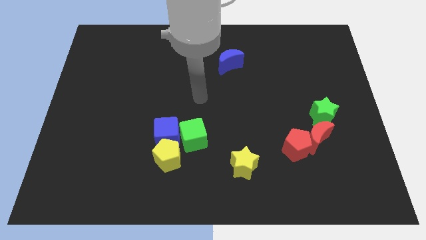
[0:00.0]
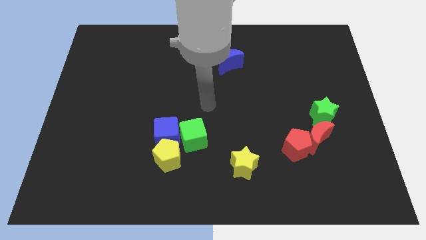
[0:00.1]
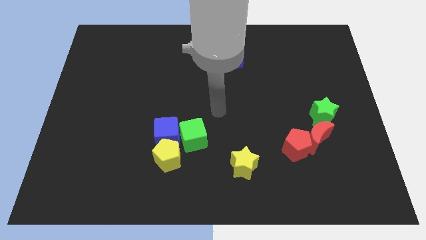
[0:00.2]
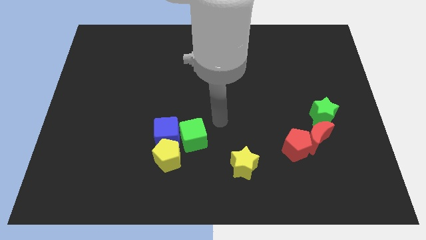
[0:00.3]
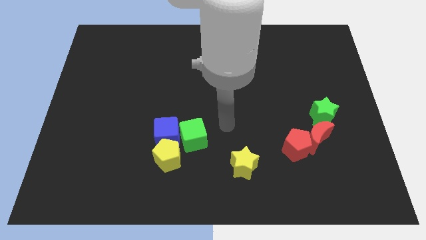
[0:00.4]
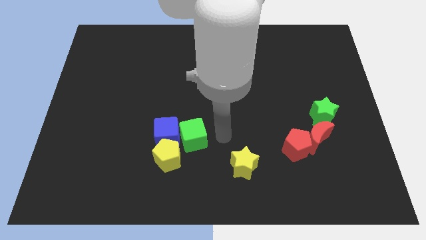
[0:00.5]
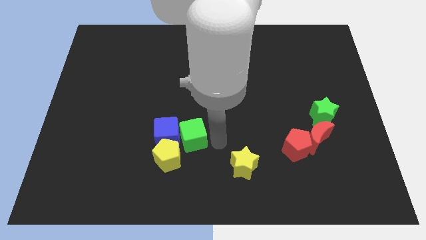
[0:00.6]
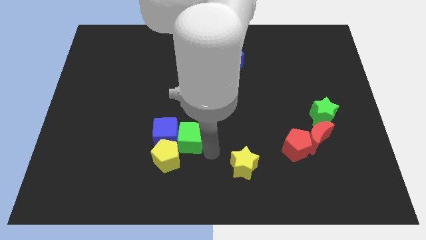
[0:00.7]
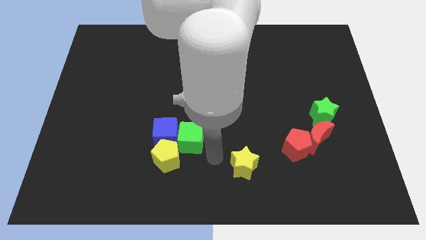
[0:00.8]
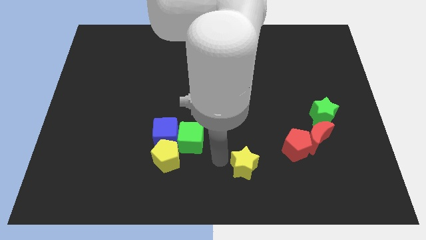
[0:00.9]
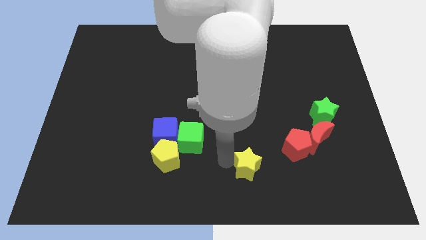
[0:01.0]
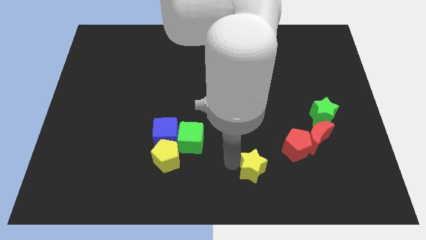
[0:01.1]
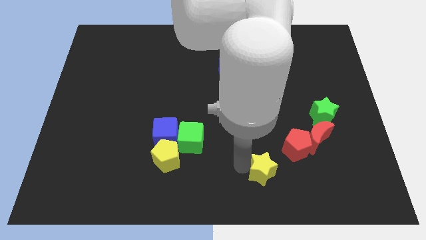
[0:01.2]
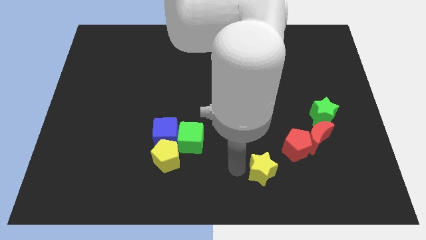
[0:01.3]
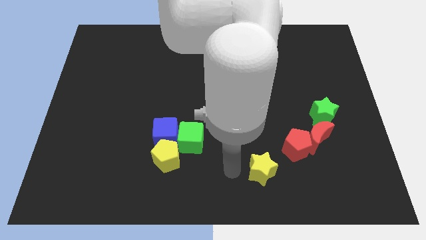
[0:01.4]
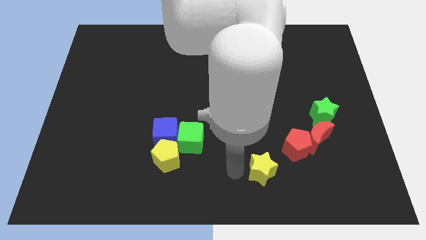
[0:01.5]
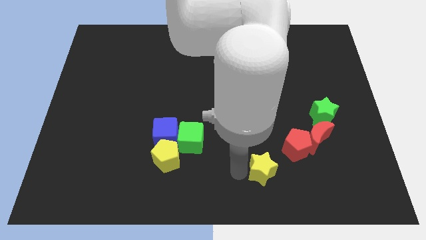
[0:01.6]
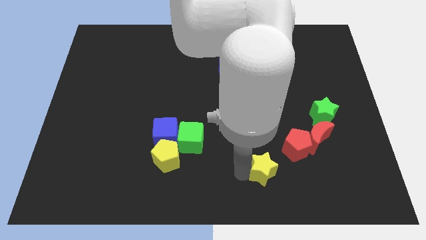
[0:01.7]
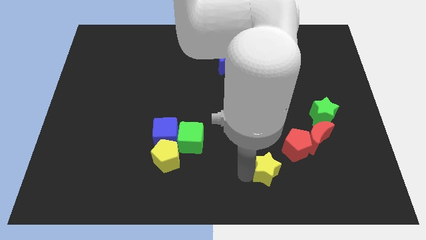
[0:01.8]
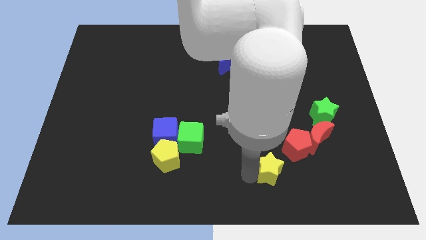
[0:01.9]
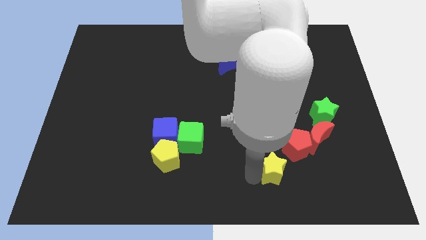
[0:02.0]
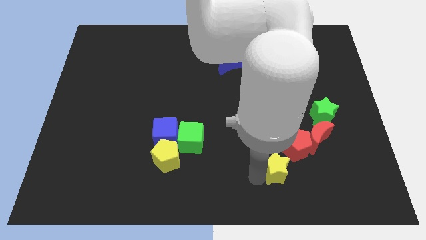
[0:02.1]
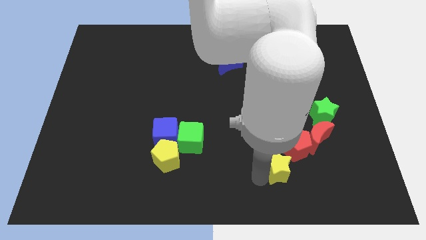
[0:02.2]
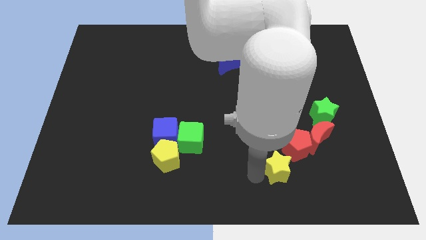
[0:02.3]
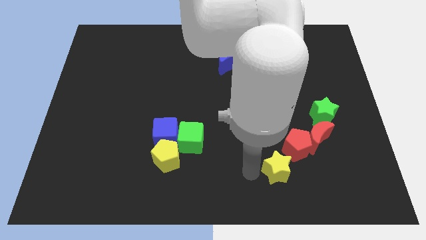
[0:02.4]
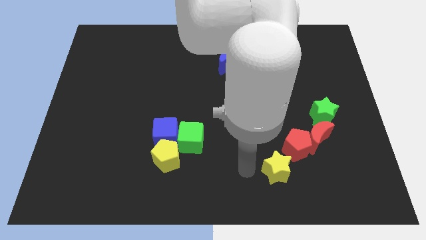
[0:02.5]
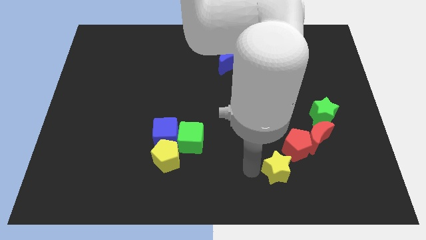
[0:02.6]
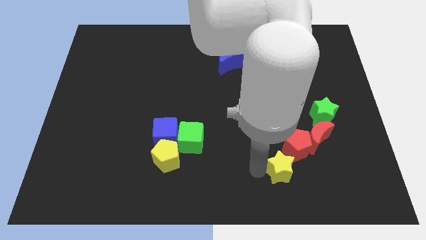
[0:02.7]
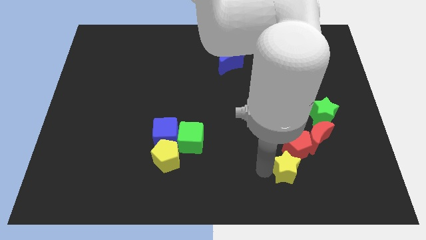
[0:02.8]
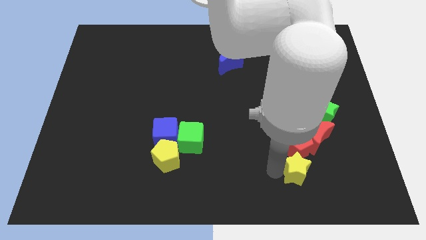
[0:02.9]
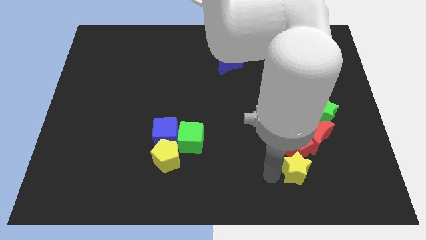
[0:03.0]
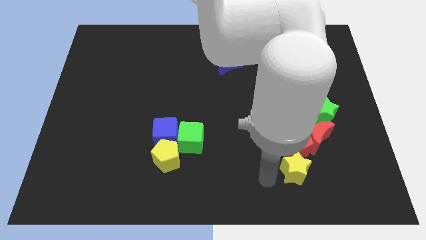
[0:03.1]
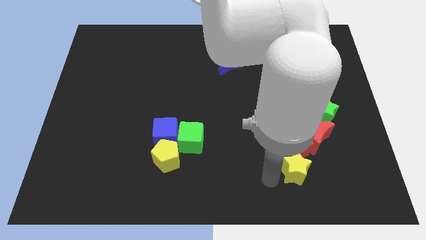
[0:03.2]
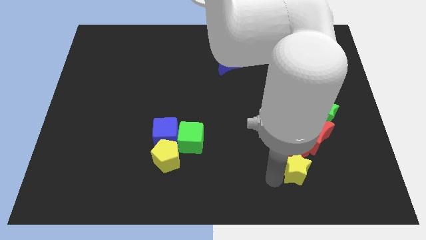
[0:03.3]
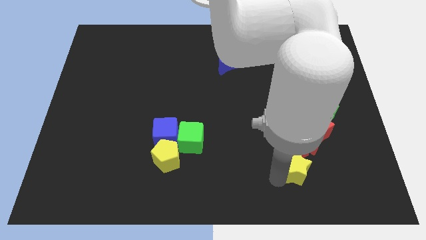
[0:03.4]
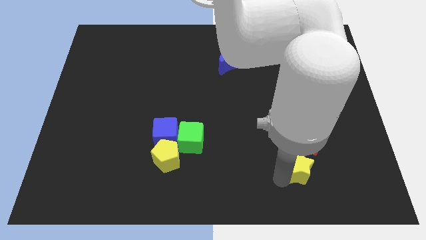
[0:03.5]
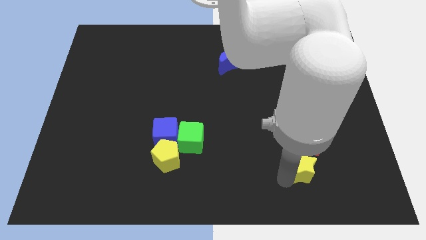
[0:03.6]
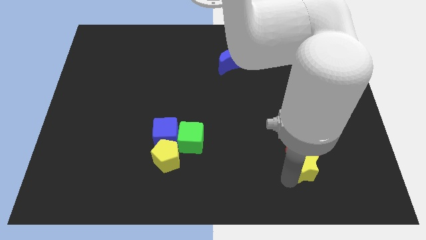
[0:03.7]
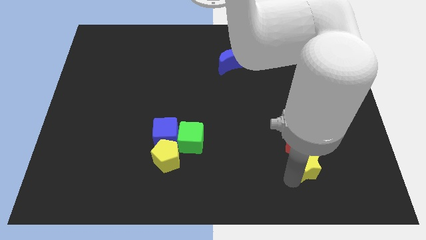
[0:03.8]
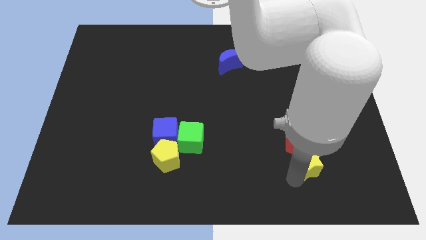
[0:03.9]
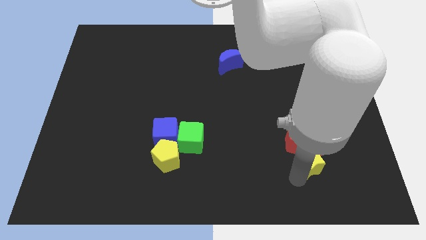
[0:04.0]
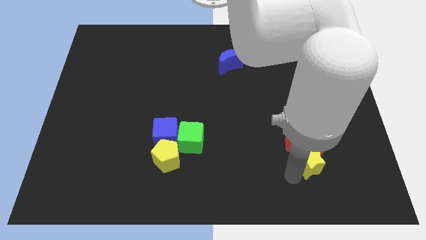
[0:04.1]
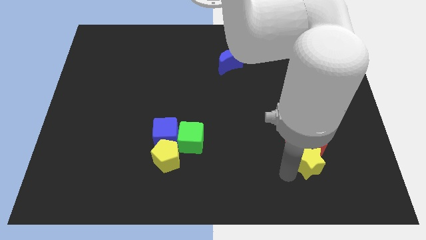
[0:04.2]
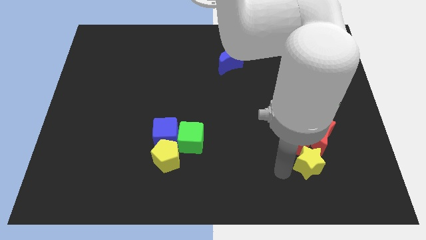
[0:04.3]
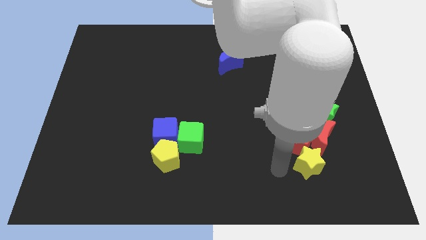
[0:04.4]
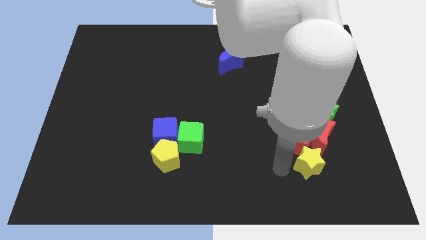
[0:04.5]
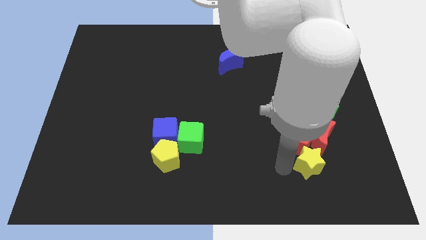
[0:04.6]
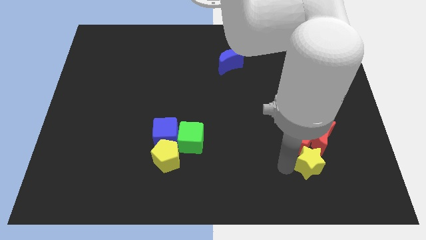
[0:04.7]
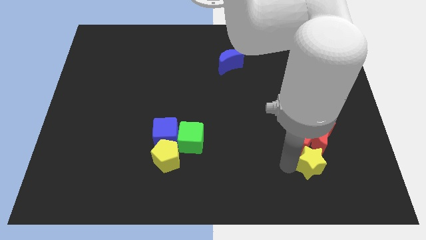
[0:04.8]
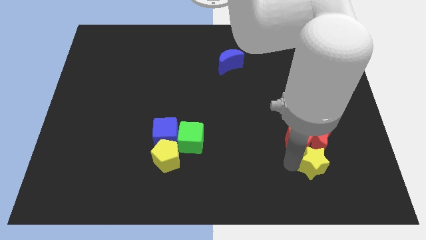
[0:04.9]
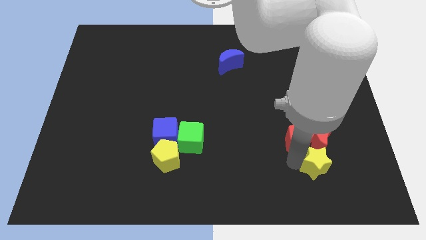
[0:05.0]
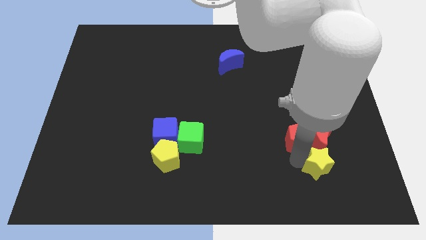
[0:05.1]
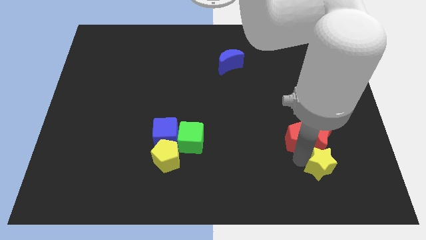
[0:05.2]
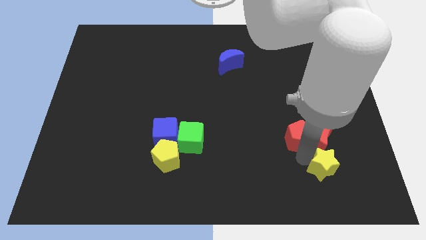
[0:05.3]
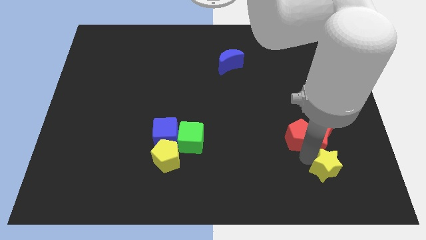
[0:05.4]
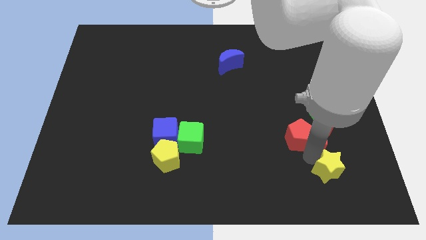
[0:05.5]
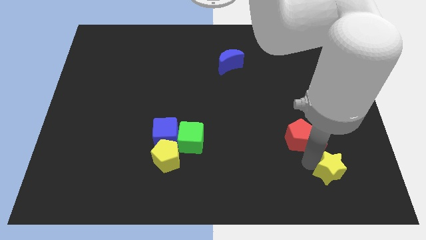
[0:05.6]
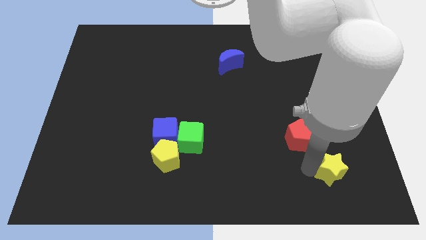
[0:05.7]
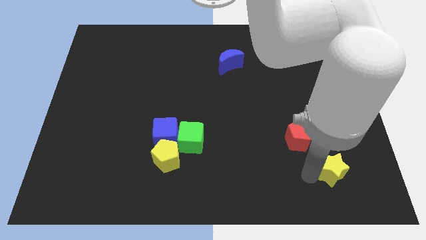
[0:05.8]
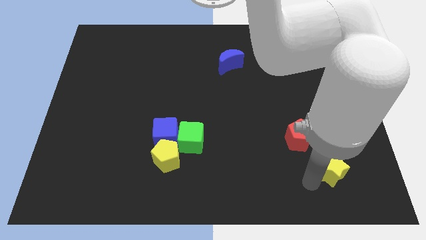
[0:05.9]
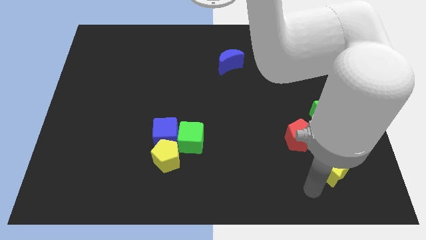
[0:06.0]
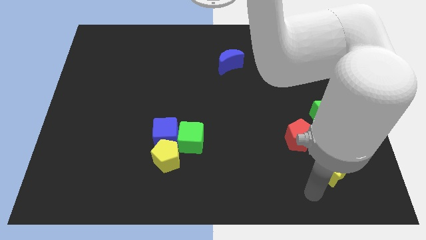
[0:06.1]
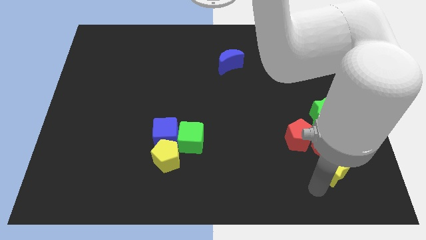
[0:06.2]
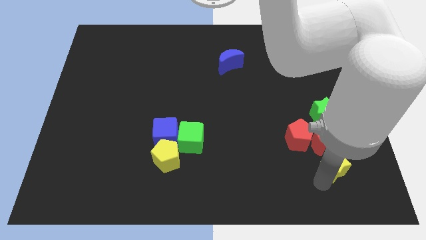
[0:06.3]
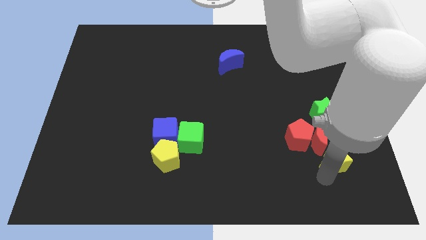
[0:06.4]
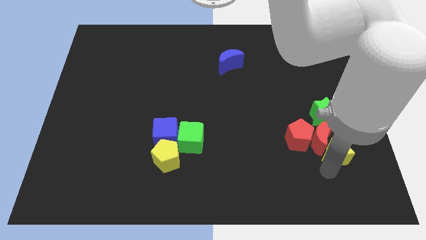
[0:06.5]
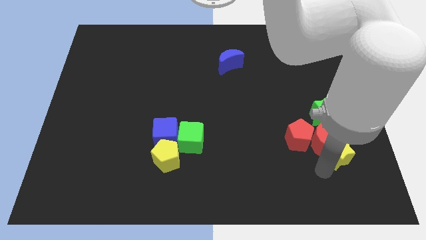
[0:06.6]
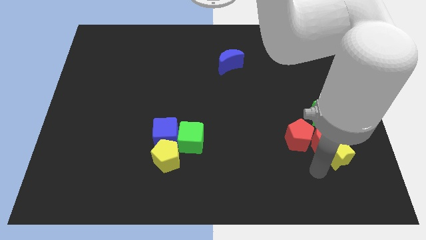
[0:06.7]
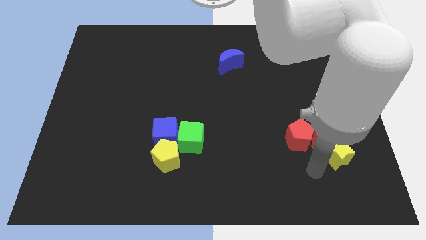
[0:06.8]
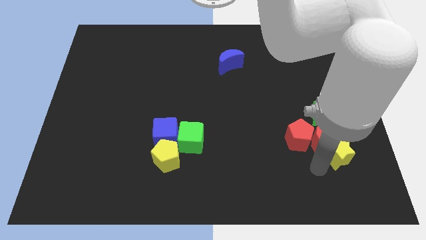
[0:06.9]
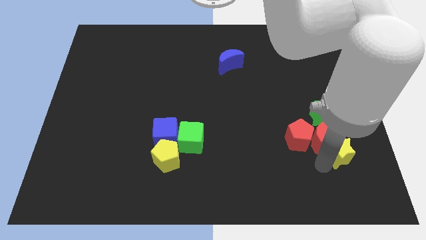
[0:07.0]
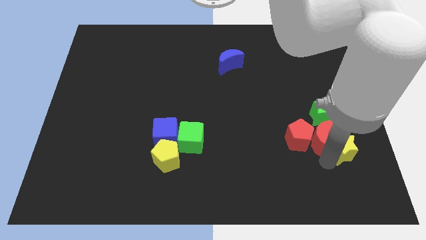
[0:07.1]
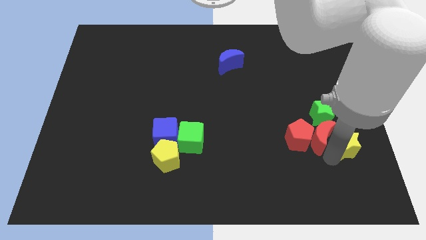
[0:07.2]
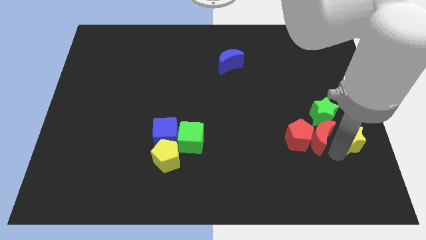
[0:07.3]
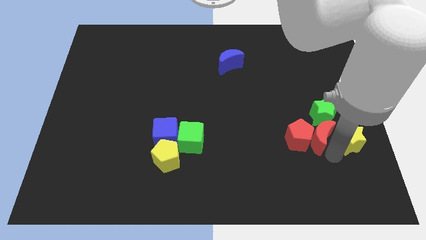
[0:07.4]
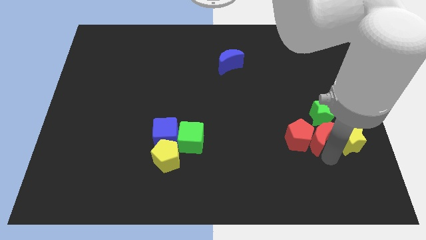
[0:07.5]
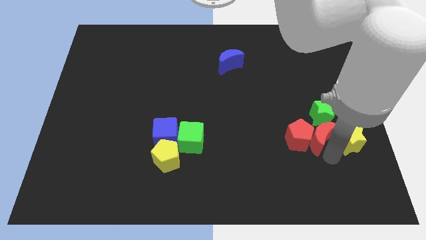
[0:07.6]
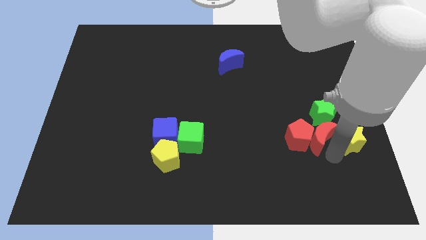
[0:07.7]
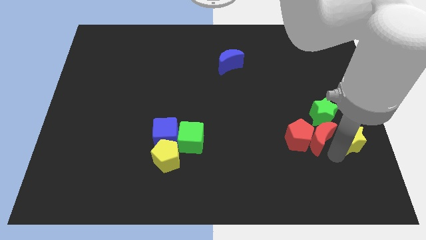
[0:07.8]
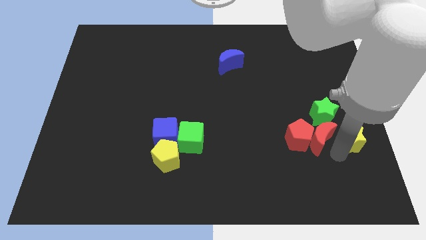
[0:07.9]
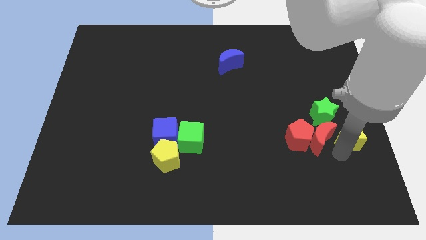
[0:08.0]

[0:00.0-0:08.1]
put the yellow star to the right side
